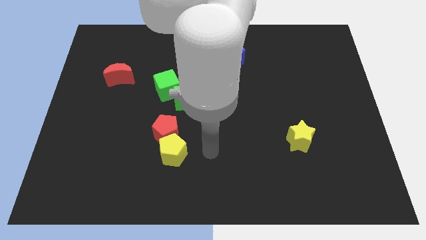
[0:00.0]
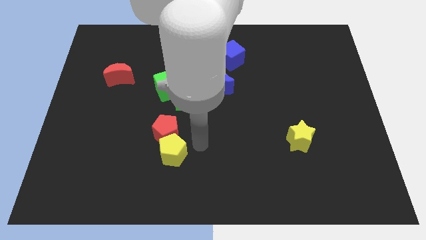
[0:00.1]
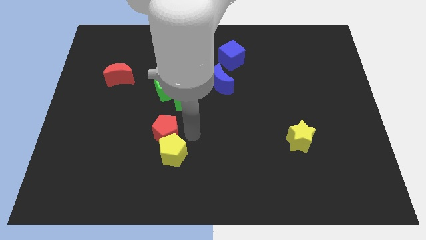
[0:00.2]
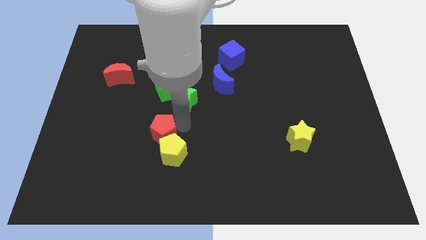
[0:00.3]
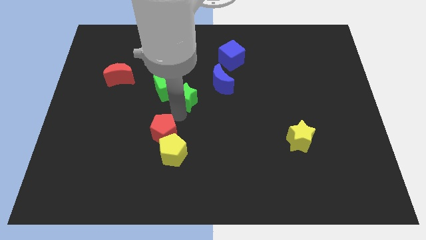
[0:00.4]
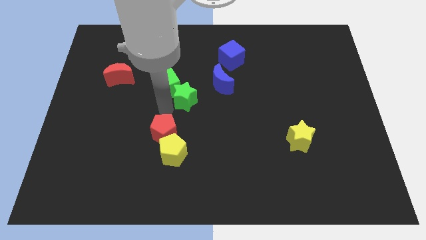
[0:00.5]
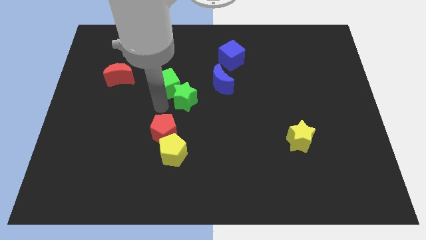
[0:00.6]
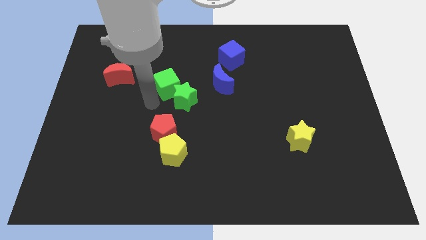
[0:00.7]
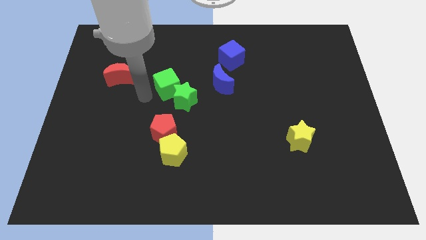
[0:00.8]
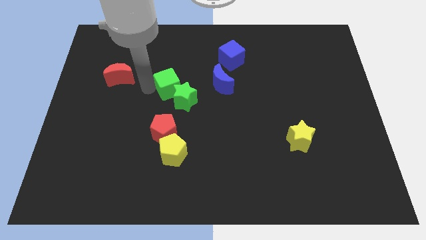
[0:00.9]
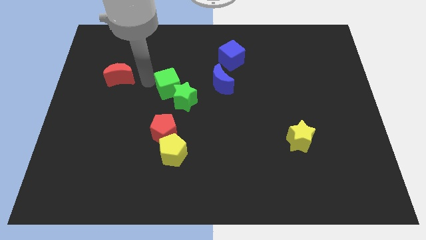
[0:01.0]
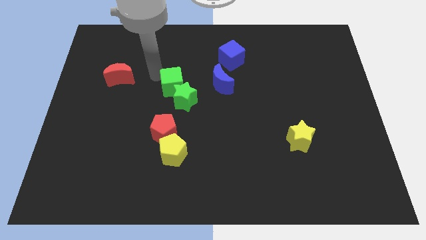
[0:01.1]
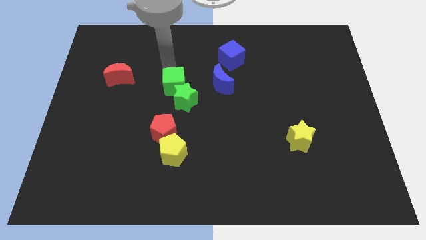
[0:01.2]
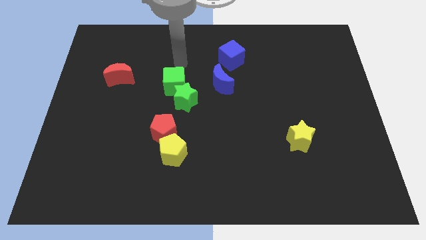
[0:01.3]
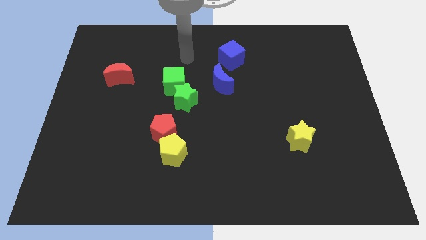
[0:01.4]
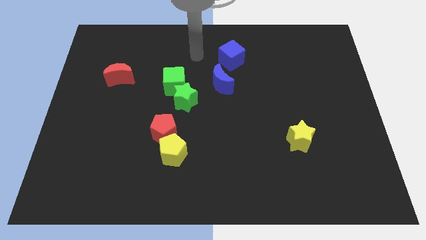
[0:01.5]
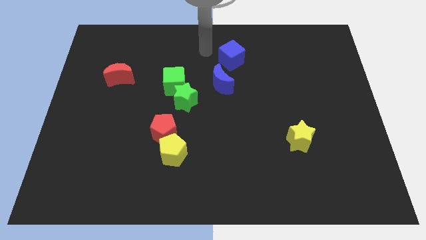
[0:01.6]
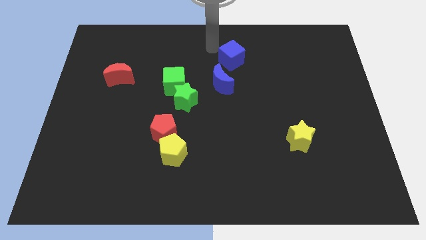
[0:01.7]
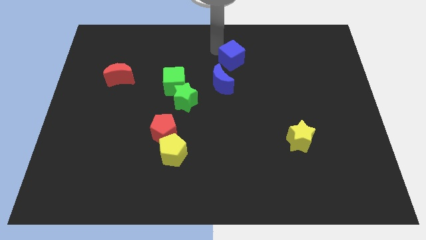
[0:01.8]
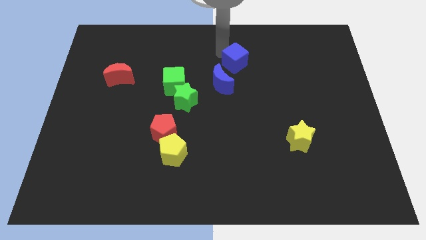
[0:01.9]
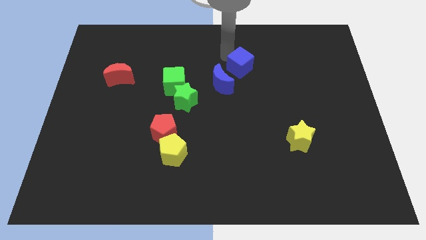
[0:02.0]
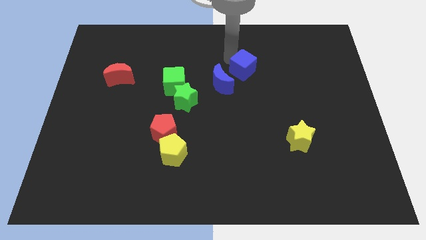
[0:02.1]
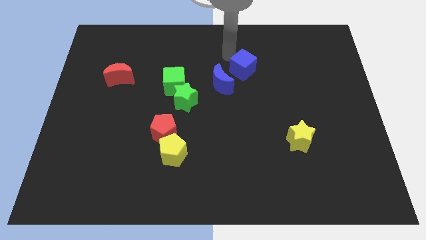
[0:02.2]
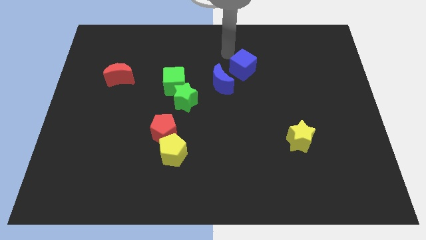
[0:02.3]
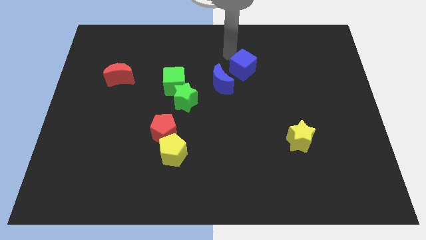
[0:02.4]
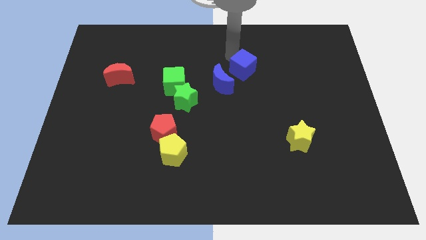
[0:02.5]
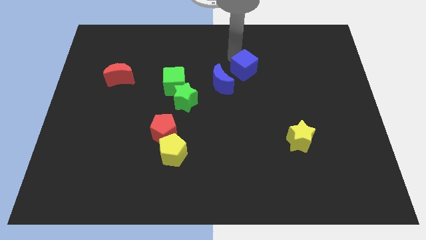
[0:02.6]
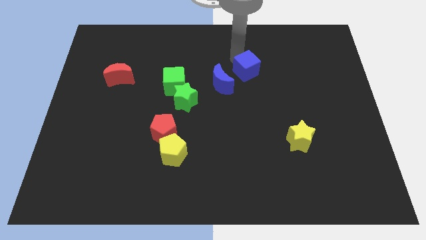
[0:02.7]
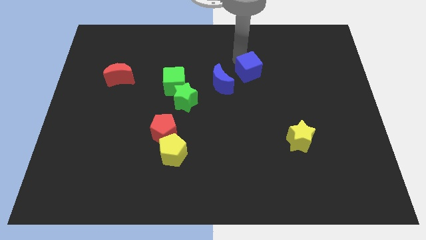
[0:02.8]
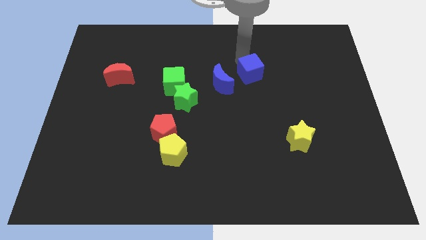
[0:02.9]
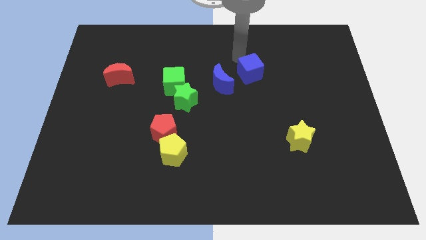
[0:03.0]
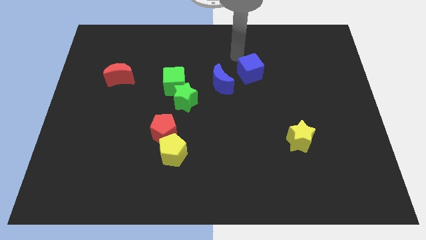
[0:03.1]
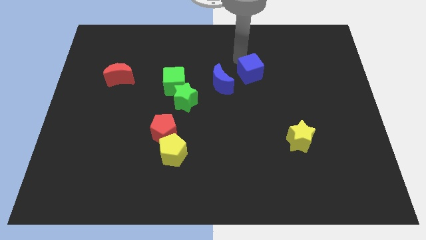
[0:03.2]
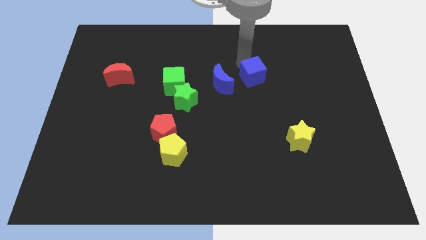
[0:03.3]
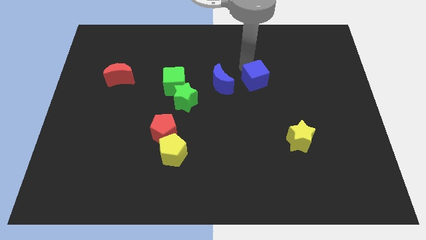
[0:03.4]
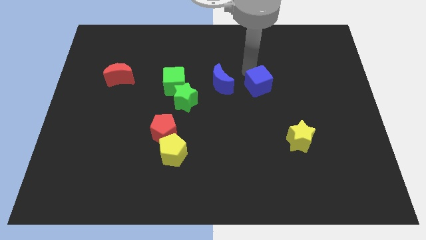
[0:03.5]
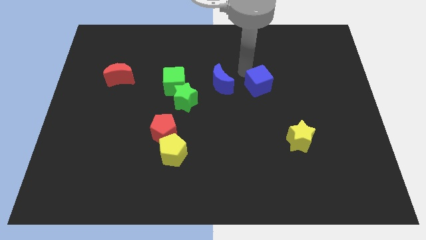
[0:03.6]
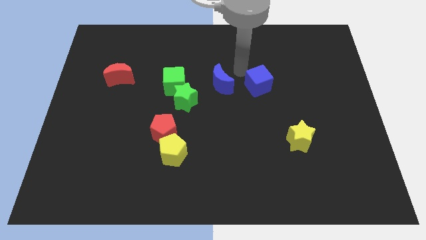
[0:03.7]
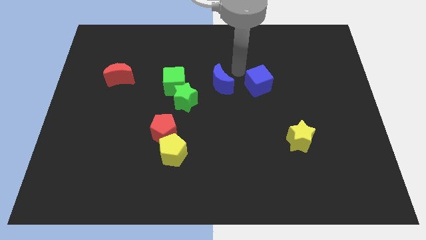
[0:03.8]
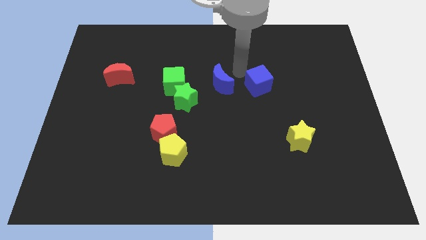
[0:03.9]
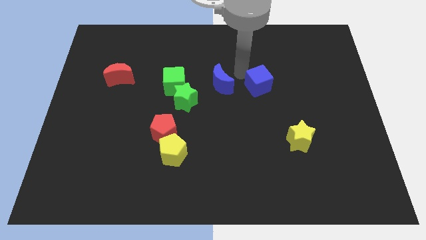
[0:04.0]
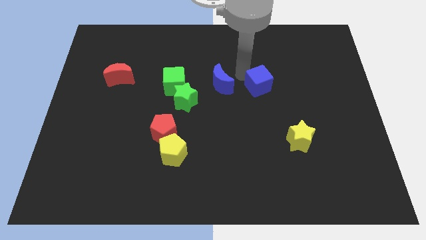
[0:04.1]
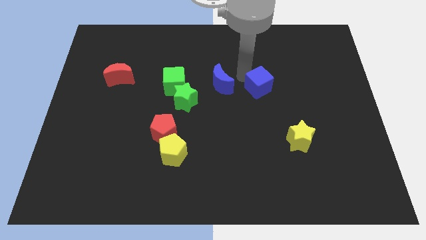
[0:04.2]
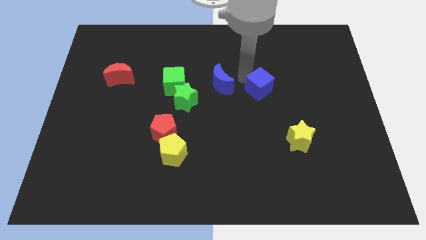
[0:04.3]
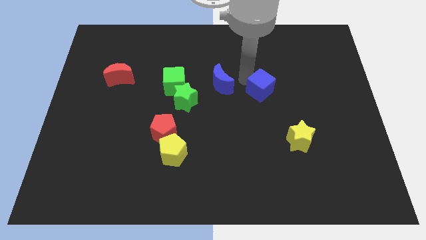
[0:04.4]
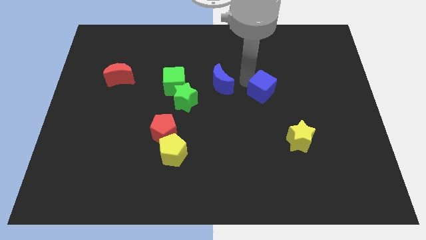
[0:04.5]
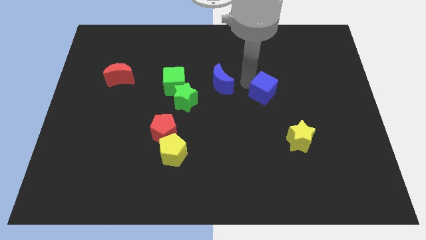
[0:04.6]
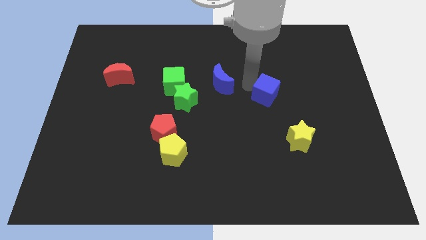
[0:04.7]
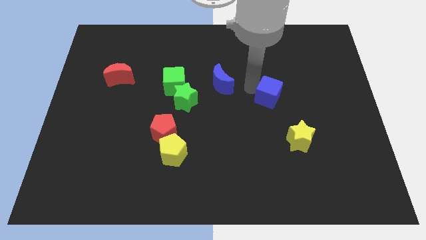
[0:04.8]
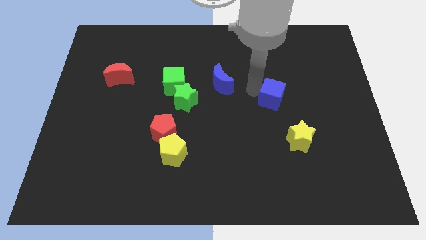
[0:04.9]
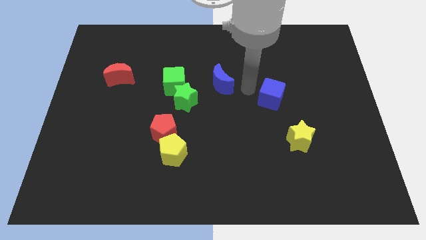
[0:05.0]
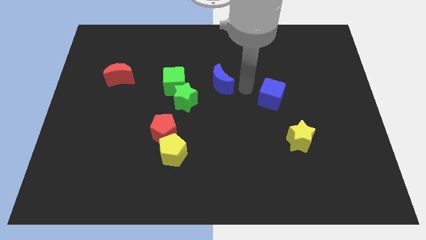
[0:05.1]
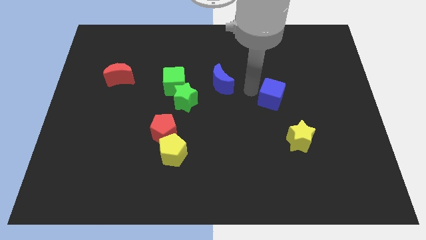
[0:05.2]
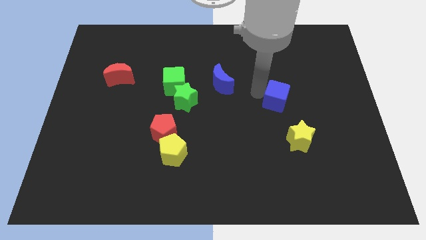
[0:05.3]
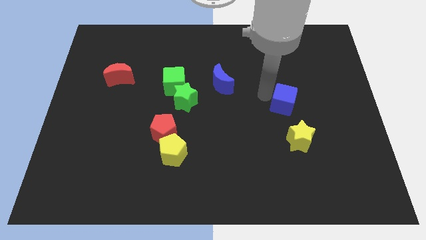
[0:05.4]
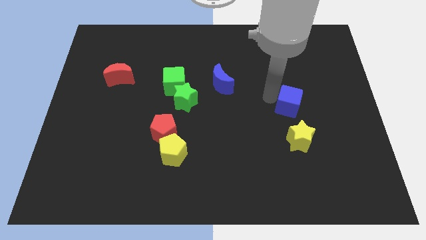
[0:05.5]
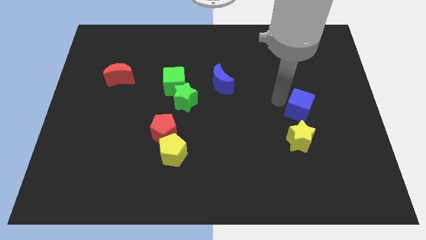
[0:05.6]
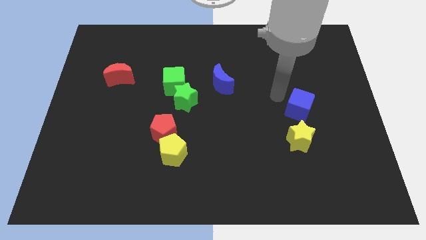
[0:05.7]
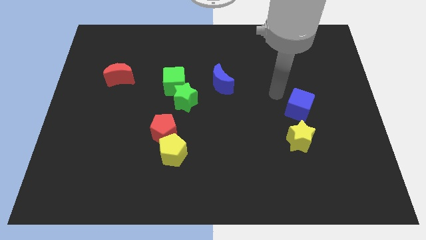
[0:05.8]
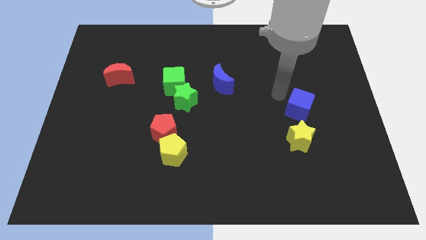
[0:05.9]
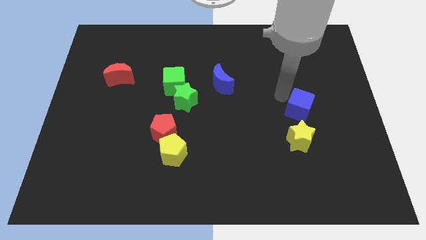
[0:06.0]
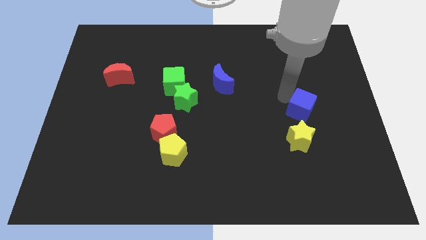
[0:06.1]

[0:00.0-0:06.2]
move the blue cube to the top right of the yellow star
